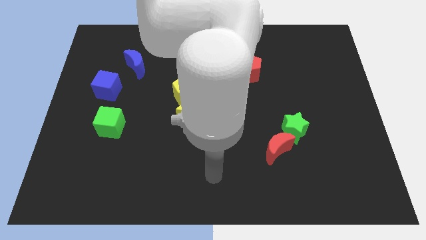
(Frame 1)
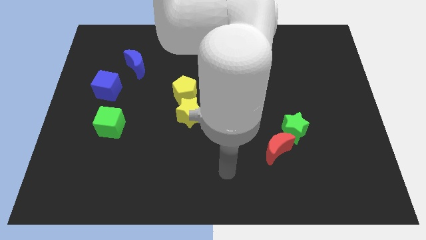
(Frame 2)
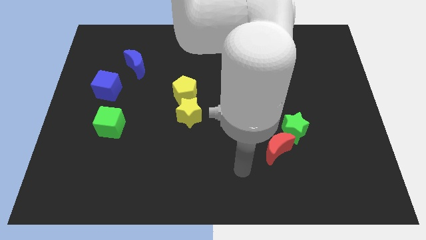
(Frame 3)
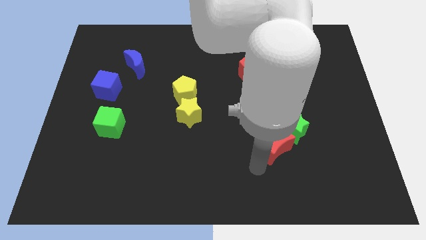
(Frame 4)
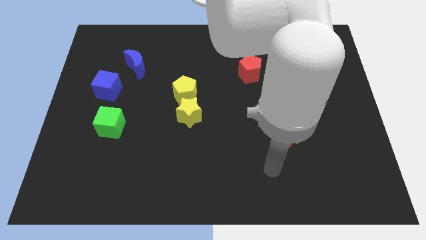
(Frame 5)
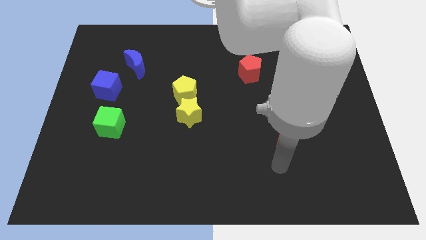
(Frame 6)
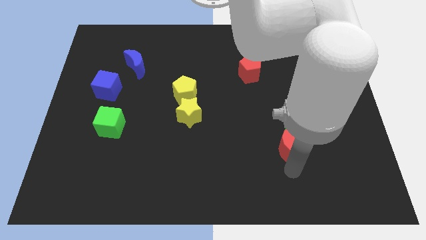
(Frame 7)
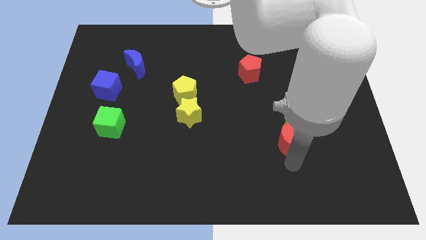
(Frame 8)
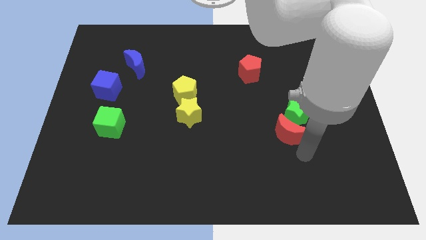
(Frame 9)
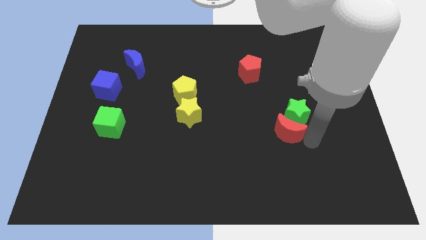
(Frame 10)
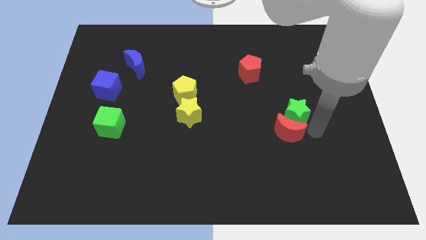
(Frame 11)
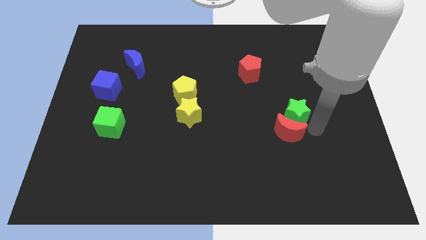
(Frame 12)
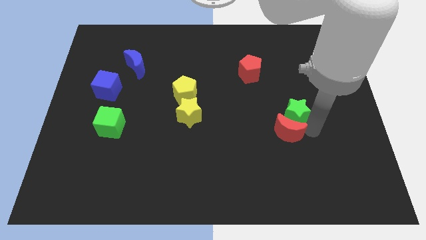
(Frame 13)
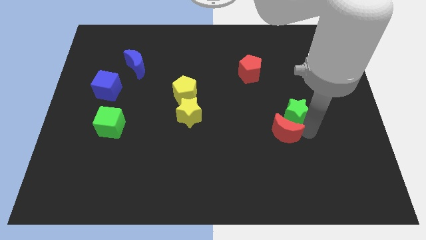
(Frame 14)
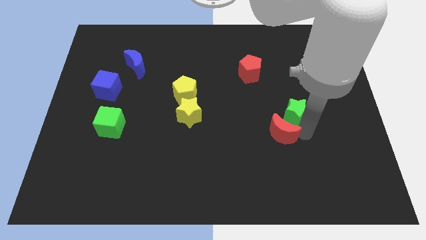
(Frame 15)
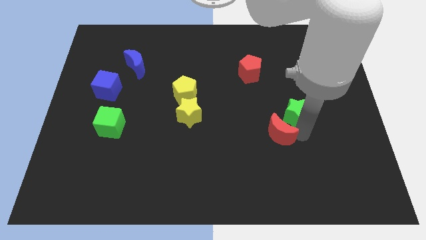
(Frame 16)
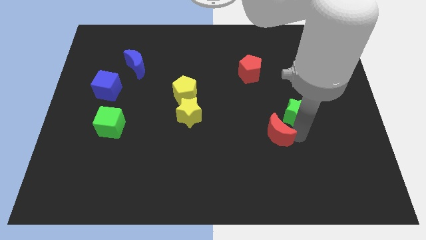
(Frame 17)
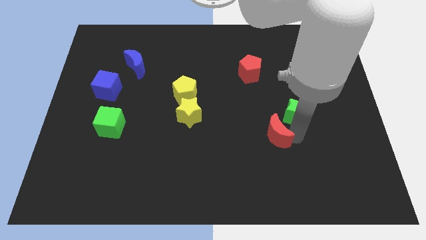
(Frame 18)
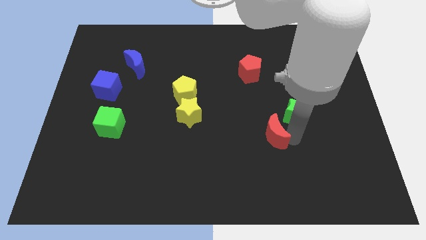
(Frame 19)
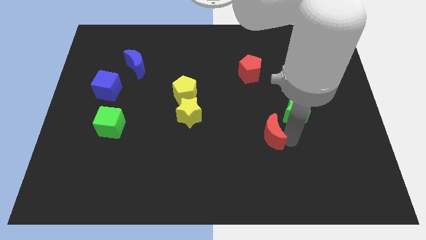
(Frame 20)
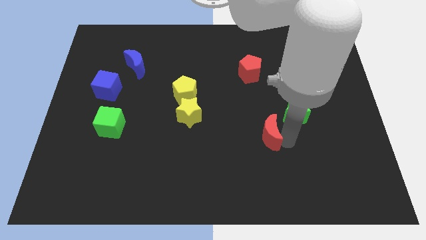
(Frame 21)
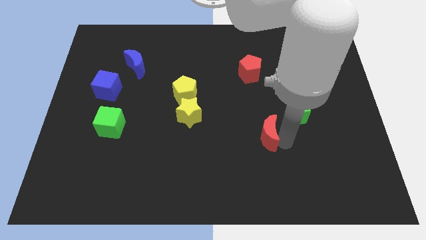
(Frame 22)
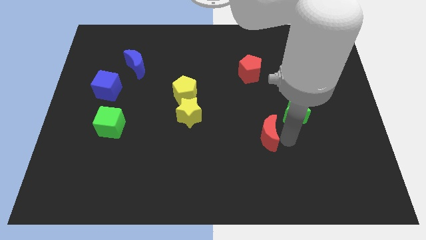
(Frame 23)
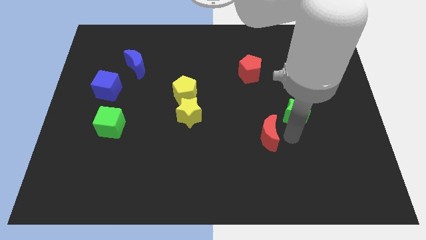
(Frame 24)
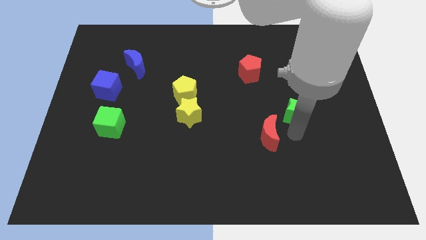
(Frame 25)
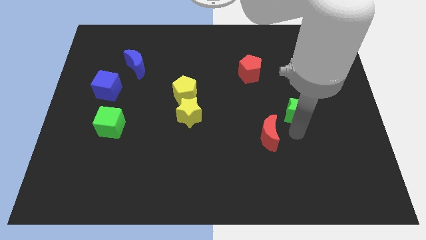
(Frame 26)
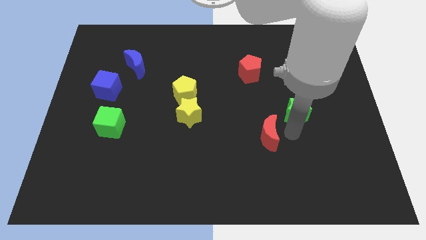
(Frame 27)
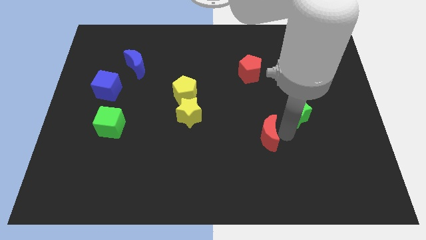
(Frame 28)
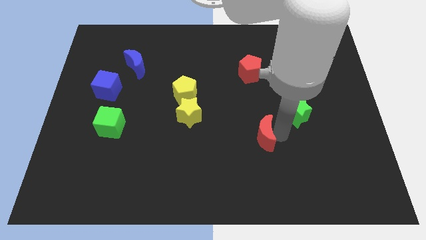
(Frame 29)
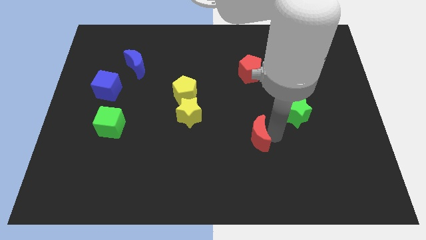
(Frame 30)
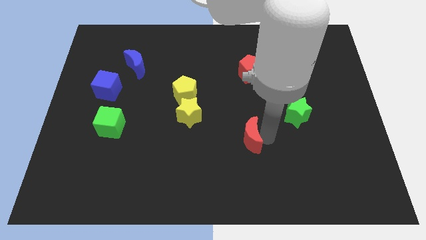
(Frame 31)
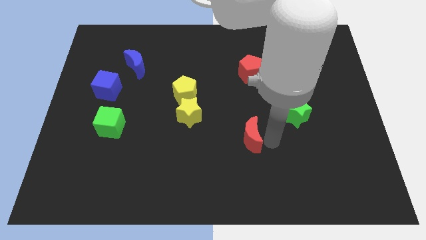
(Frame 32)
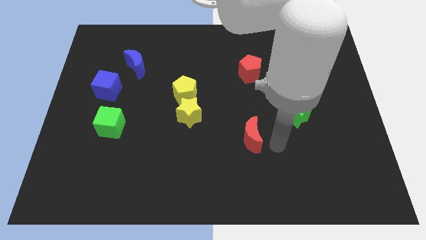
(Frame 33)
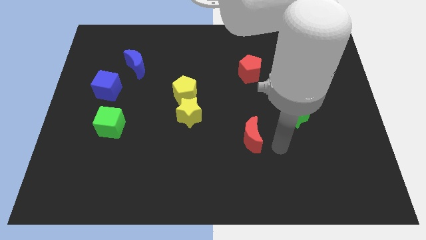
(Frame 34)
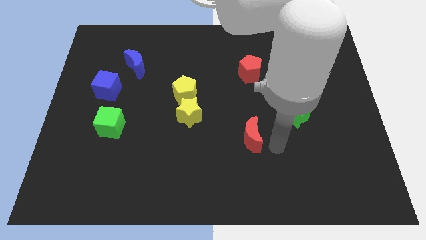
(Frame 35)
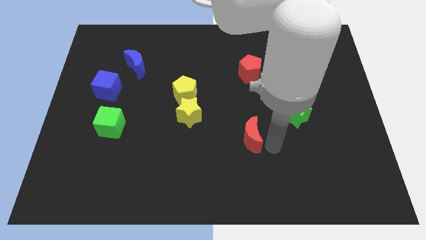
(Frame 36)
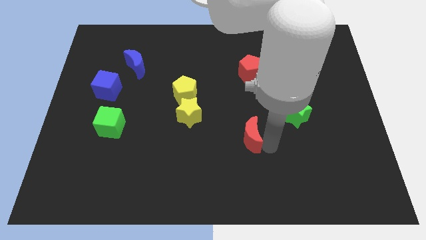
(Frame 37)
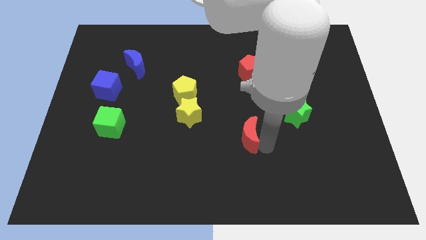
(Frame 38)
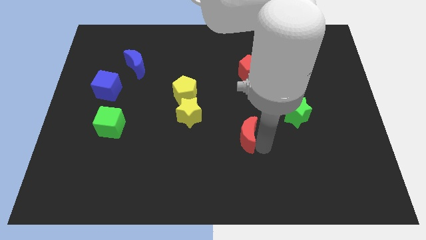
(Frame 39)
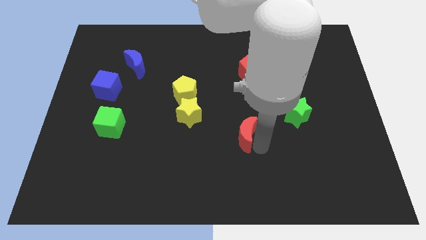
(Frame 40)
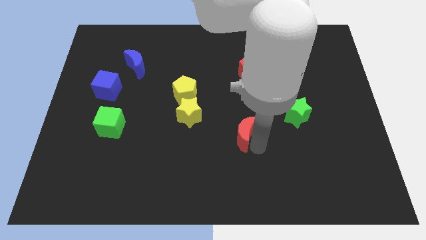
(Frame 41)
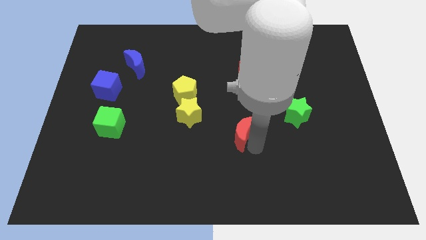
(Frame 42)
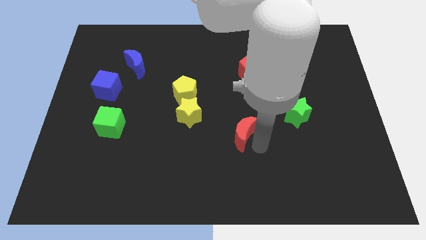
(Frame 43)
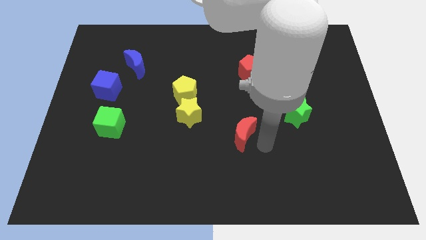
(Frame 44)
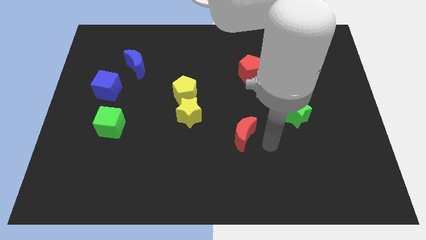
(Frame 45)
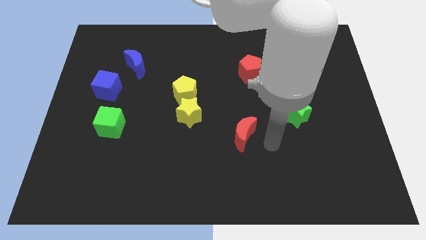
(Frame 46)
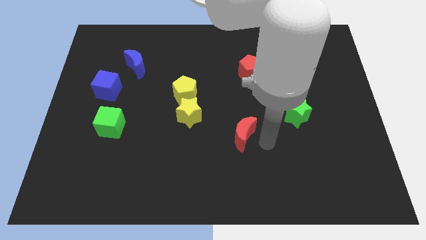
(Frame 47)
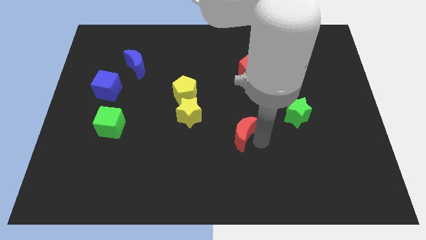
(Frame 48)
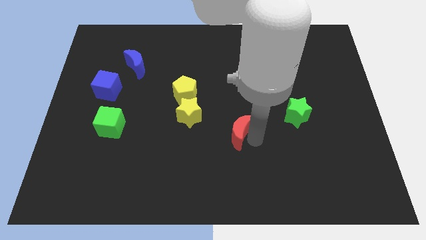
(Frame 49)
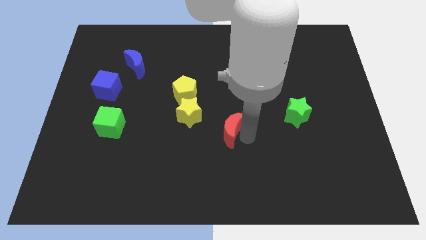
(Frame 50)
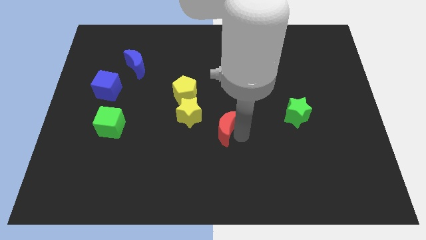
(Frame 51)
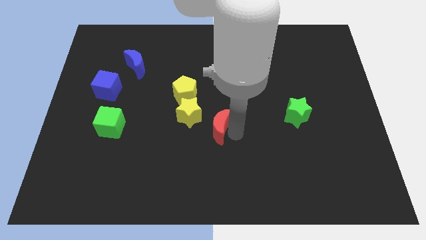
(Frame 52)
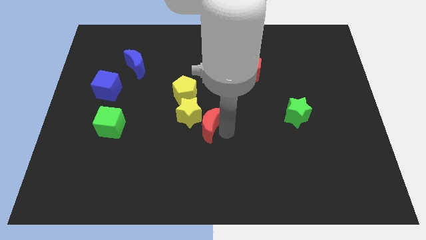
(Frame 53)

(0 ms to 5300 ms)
put the red moon towards the yellow star

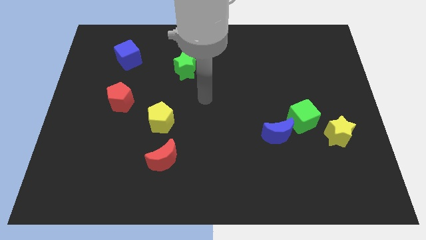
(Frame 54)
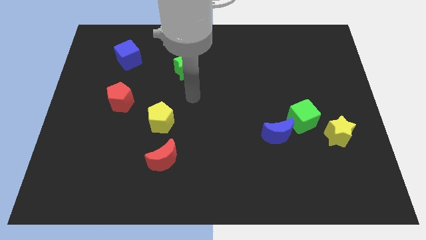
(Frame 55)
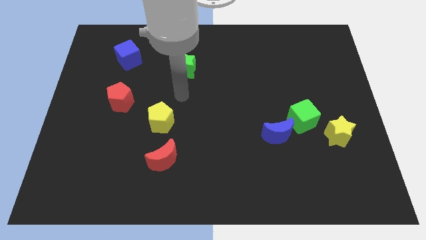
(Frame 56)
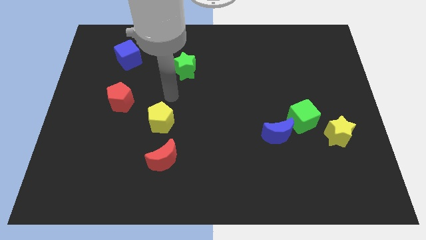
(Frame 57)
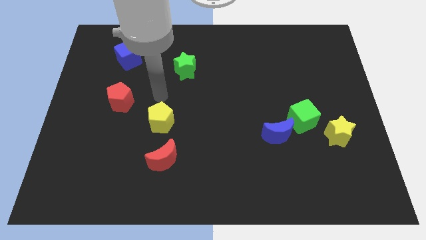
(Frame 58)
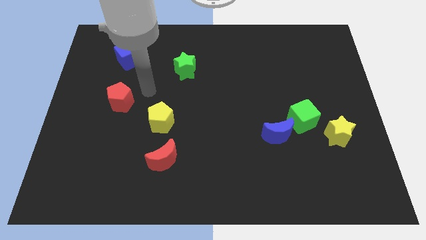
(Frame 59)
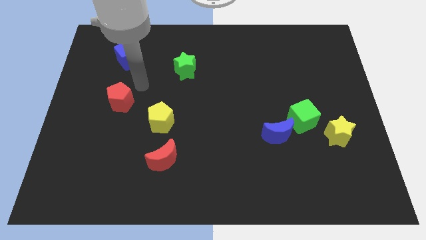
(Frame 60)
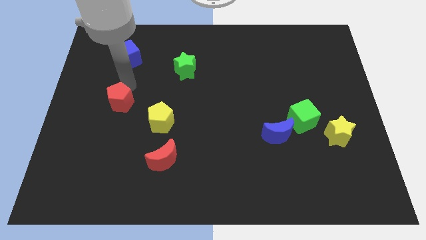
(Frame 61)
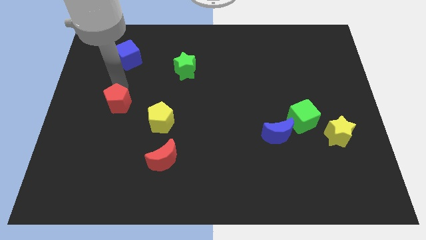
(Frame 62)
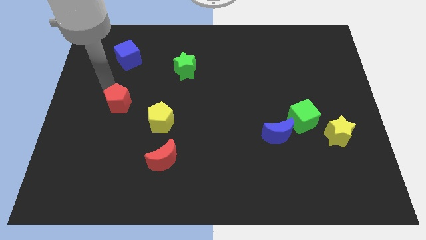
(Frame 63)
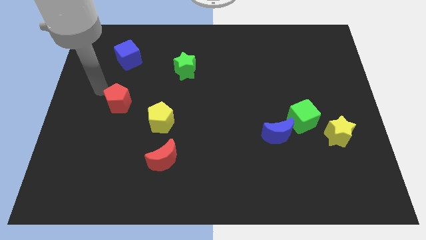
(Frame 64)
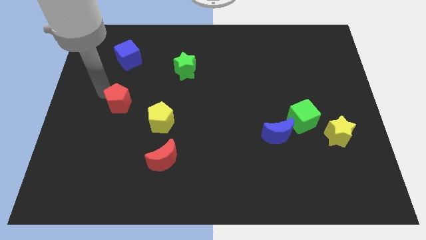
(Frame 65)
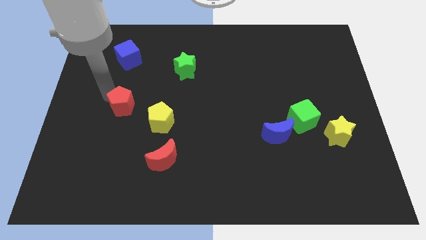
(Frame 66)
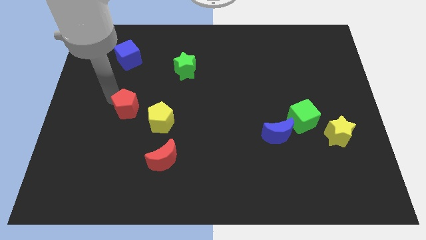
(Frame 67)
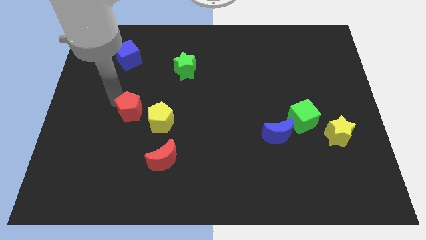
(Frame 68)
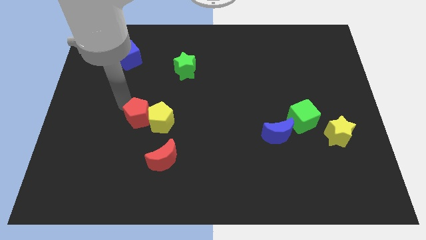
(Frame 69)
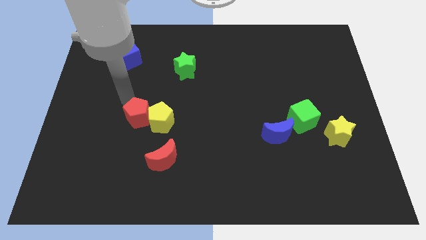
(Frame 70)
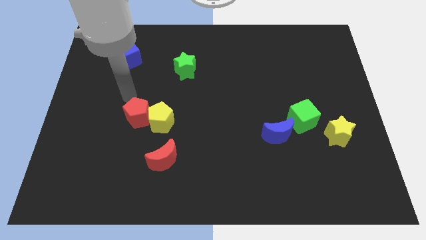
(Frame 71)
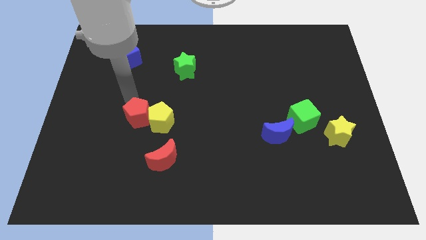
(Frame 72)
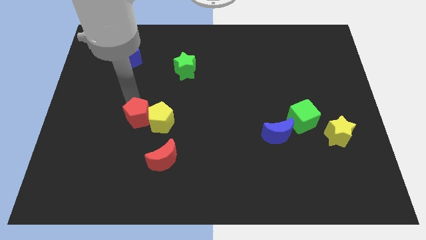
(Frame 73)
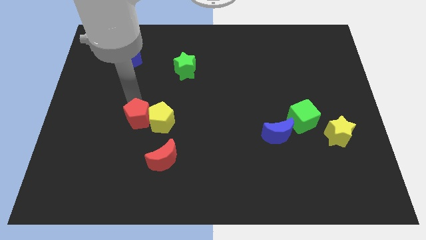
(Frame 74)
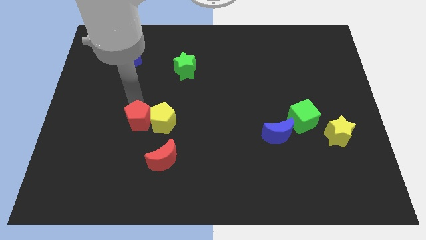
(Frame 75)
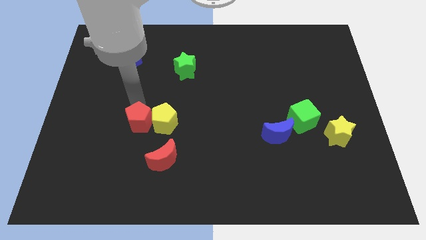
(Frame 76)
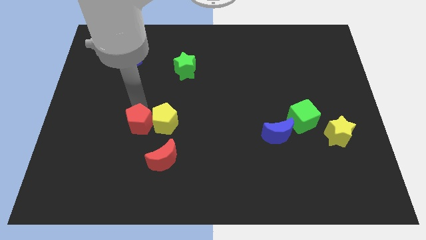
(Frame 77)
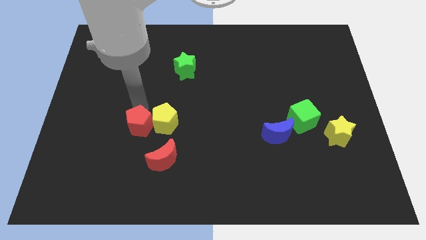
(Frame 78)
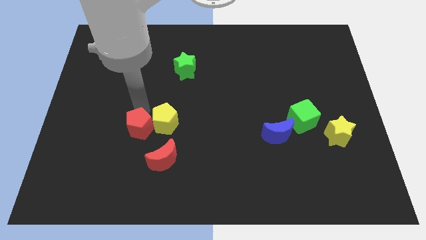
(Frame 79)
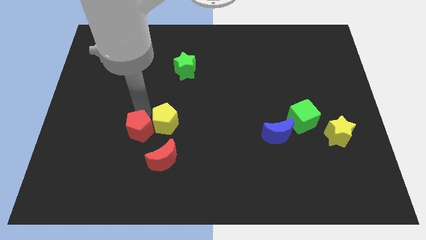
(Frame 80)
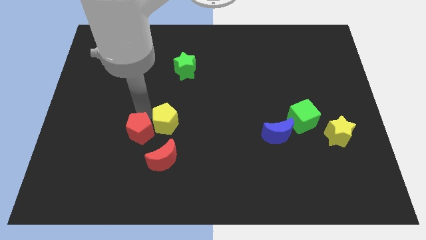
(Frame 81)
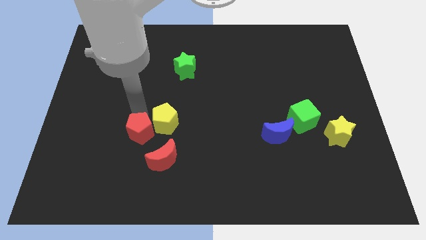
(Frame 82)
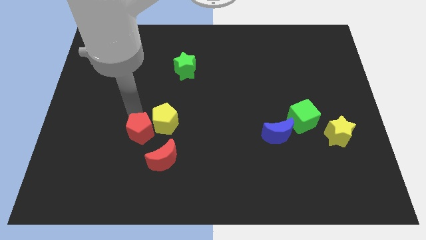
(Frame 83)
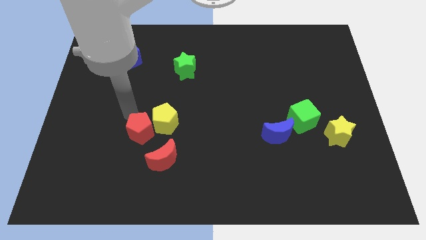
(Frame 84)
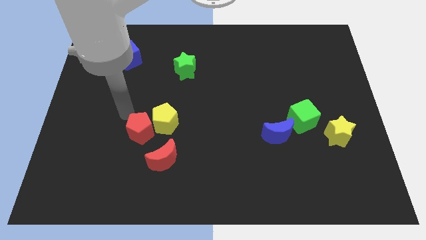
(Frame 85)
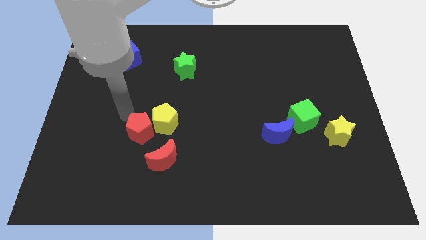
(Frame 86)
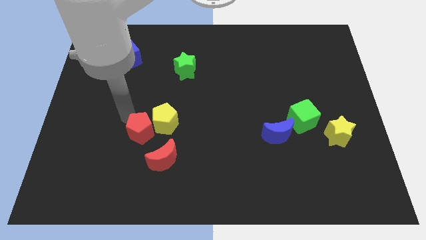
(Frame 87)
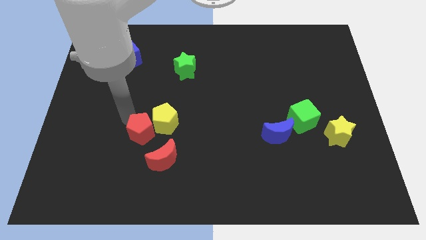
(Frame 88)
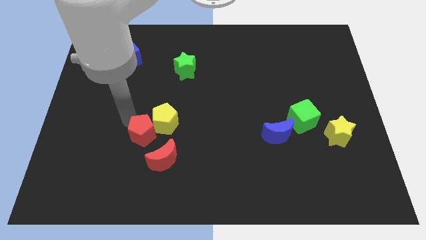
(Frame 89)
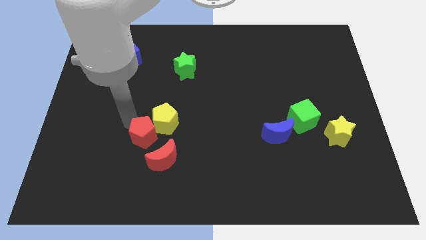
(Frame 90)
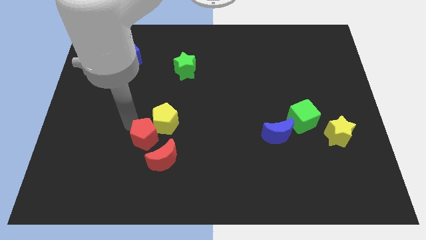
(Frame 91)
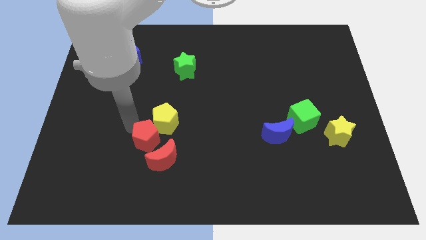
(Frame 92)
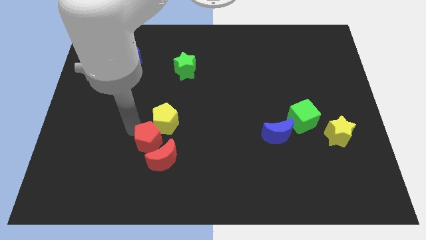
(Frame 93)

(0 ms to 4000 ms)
slide the red pentagon to the red moon
